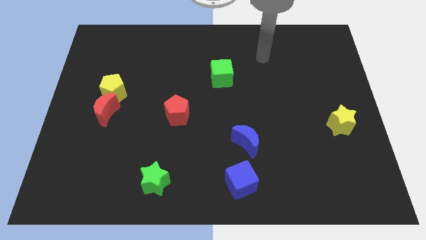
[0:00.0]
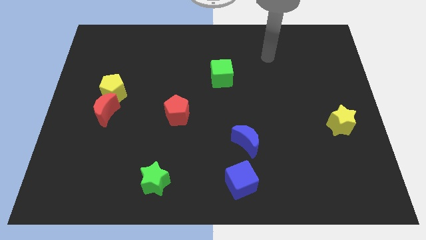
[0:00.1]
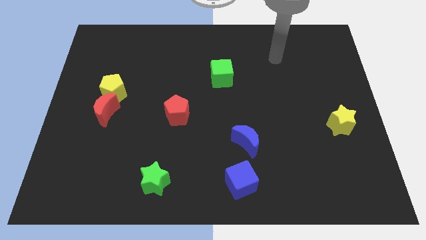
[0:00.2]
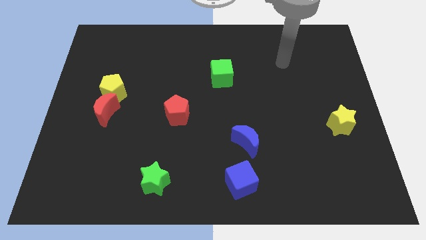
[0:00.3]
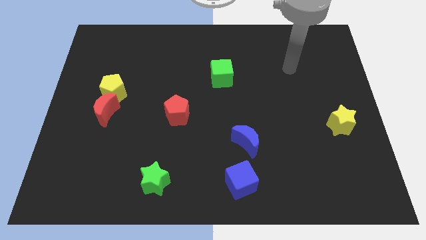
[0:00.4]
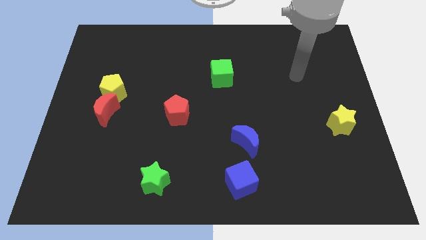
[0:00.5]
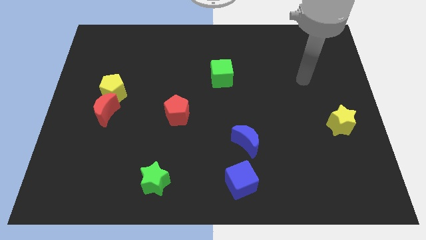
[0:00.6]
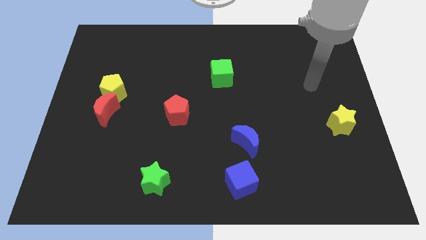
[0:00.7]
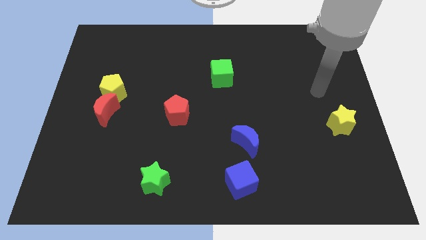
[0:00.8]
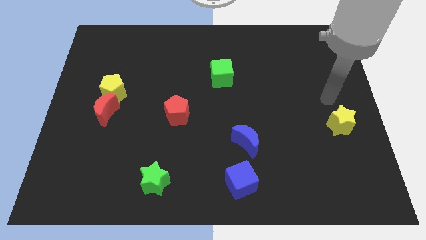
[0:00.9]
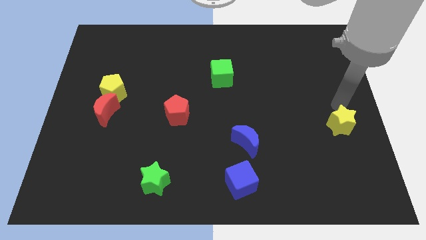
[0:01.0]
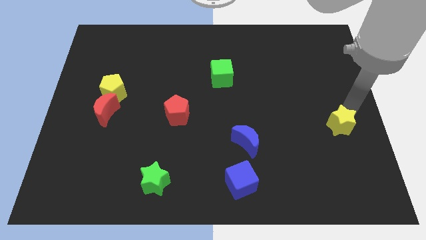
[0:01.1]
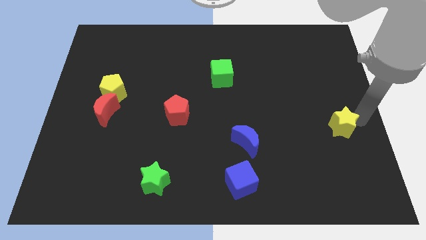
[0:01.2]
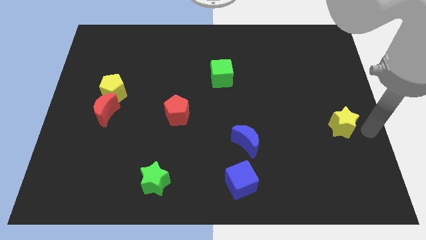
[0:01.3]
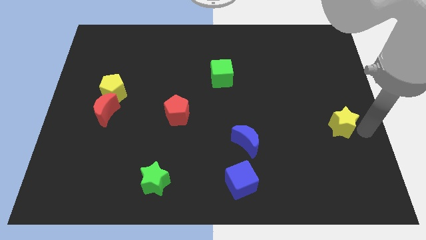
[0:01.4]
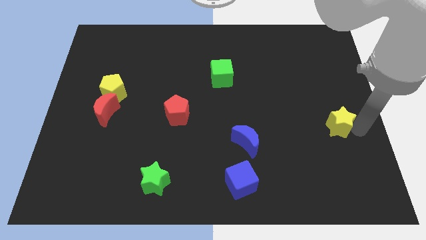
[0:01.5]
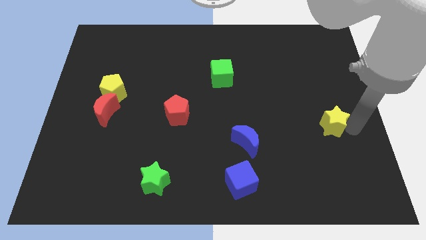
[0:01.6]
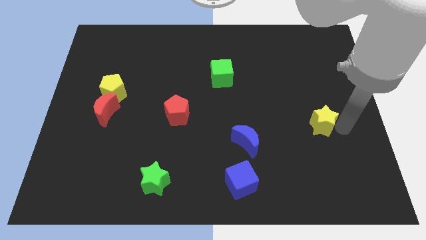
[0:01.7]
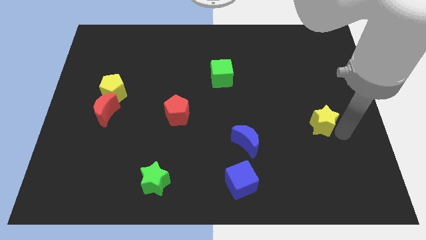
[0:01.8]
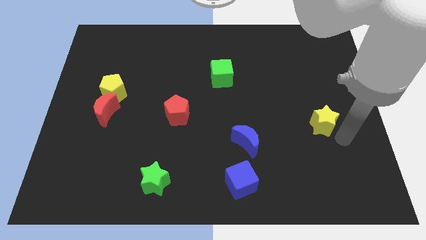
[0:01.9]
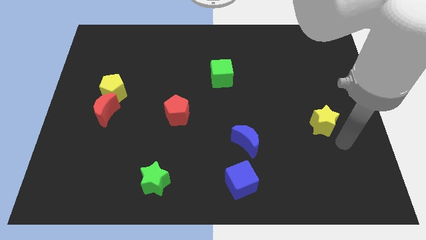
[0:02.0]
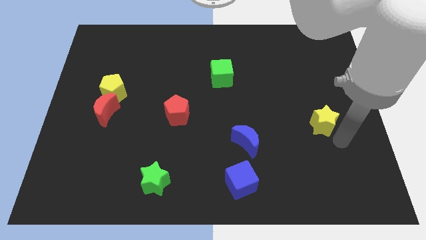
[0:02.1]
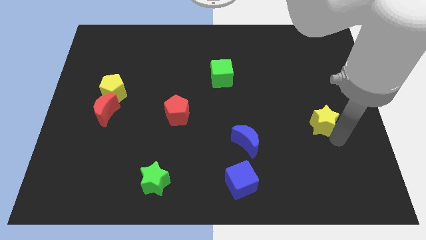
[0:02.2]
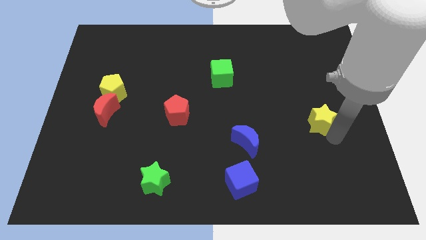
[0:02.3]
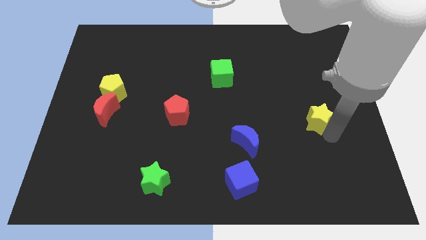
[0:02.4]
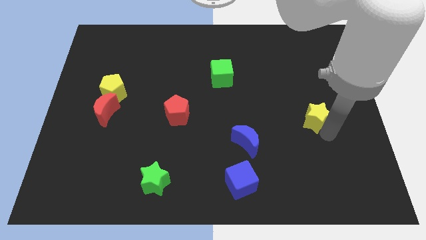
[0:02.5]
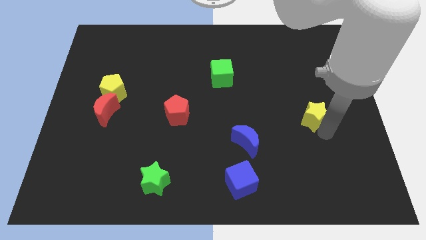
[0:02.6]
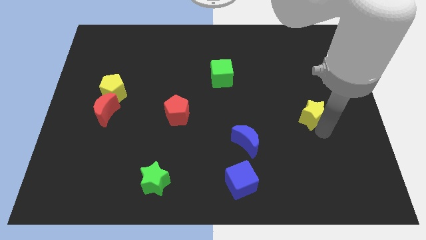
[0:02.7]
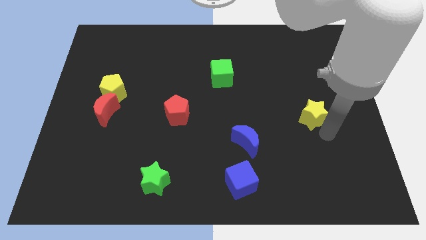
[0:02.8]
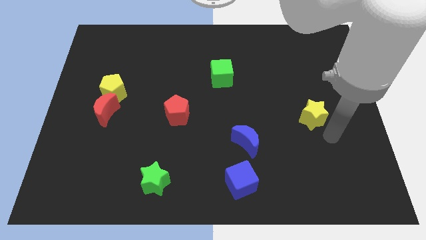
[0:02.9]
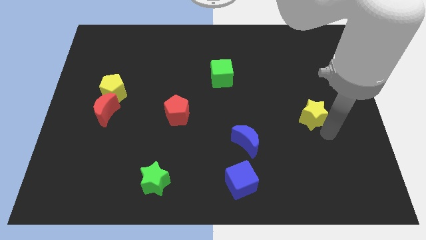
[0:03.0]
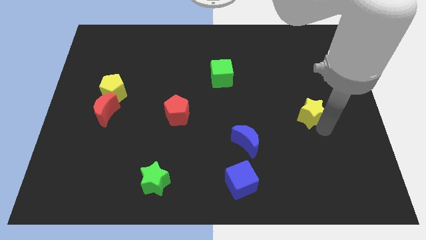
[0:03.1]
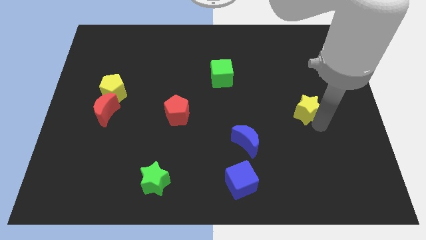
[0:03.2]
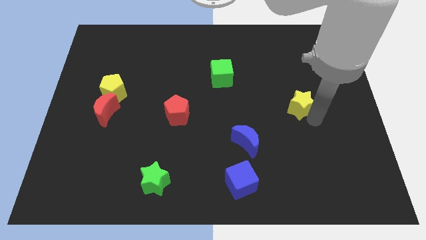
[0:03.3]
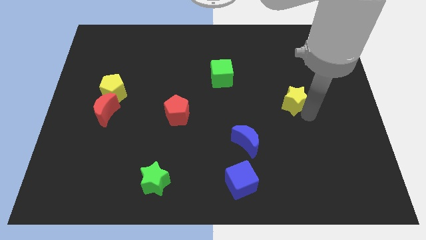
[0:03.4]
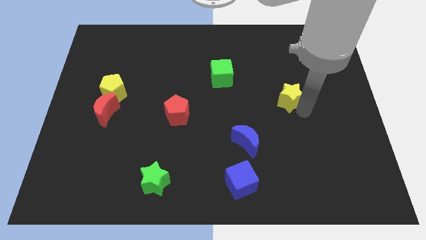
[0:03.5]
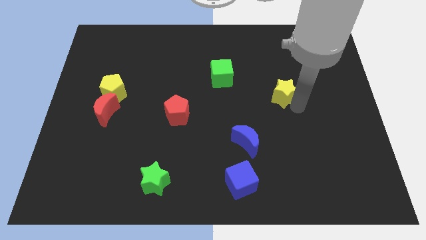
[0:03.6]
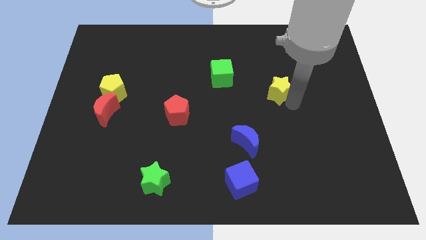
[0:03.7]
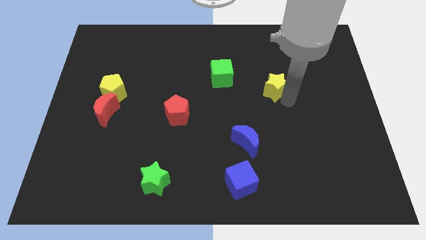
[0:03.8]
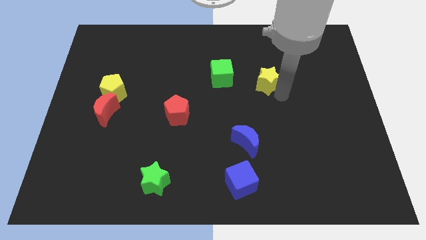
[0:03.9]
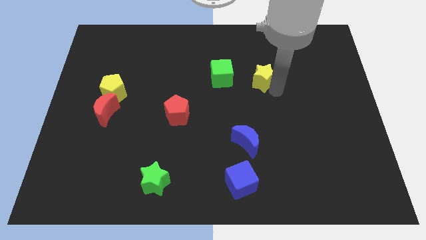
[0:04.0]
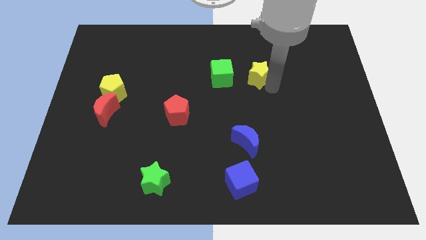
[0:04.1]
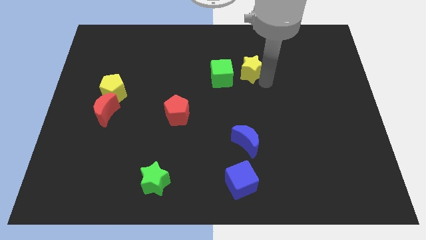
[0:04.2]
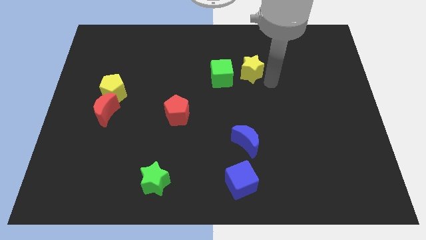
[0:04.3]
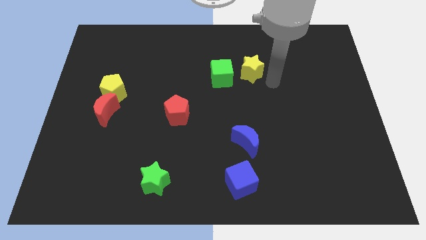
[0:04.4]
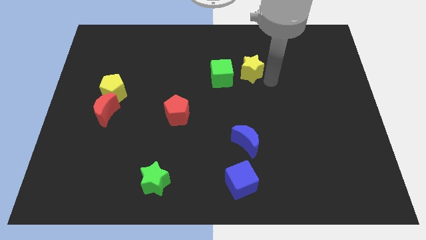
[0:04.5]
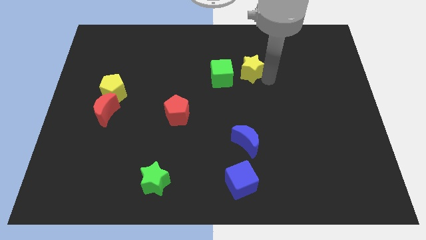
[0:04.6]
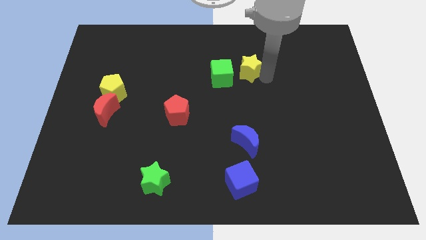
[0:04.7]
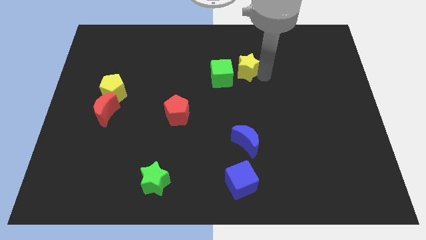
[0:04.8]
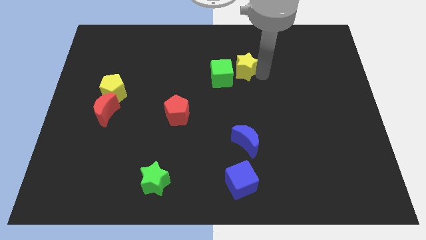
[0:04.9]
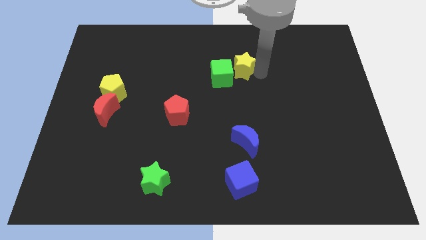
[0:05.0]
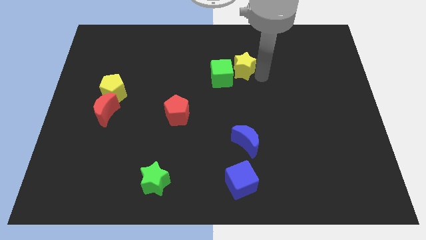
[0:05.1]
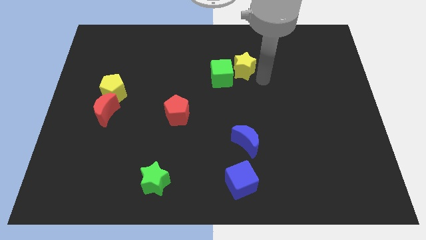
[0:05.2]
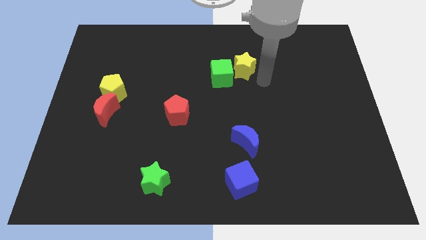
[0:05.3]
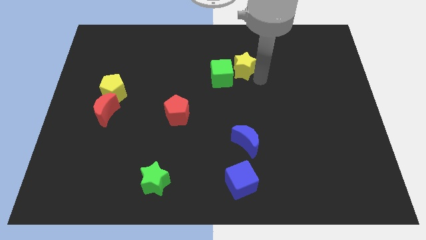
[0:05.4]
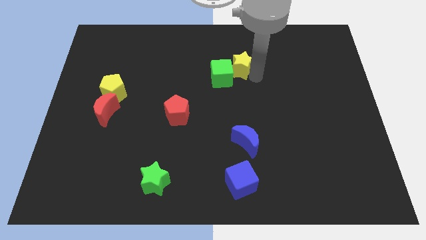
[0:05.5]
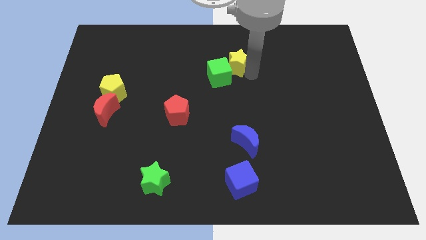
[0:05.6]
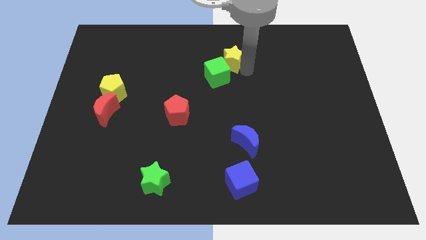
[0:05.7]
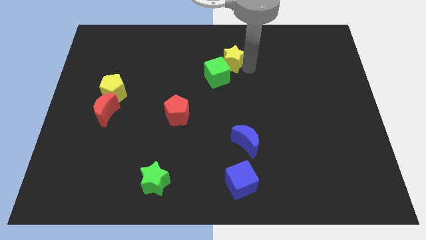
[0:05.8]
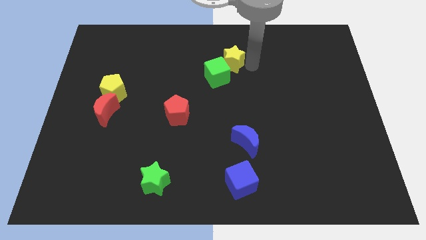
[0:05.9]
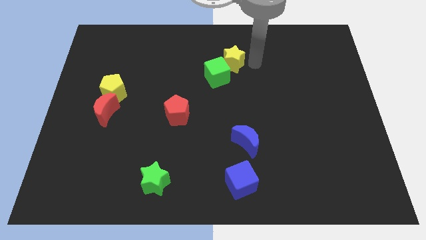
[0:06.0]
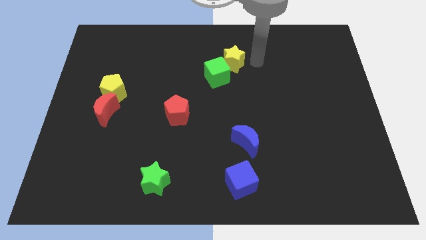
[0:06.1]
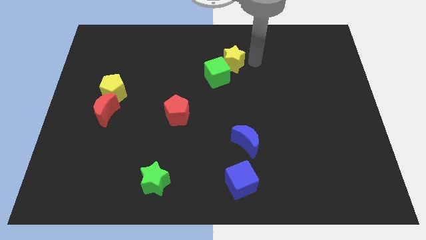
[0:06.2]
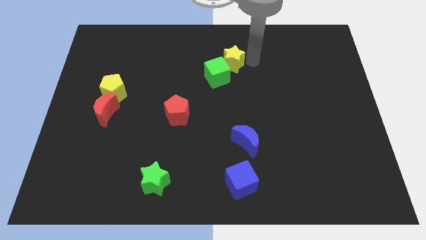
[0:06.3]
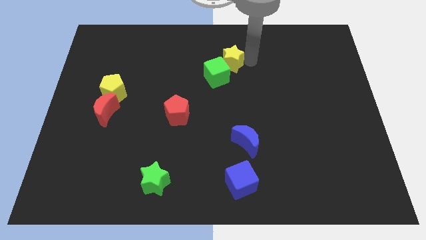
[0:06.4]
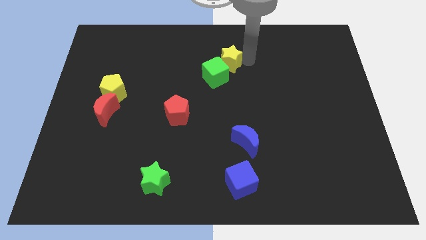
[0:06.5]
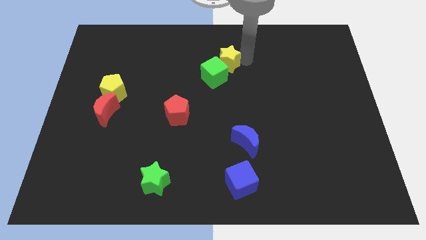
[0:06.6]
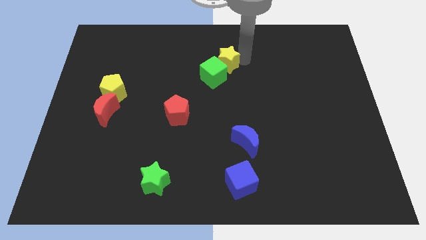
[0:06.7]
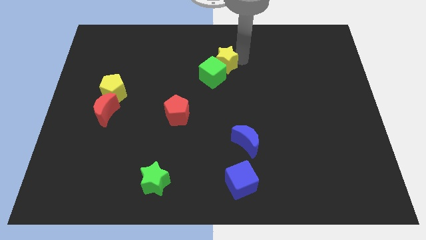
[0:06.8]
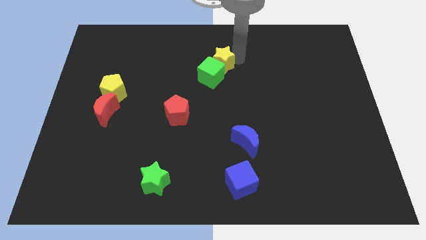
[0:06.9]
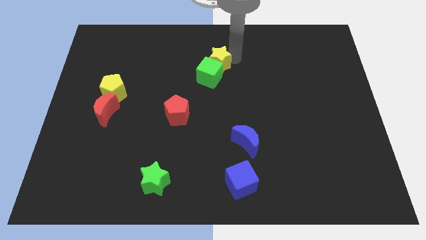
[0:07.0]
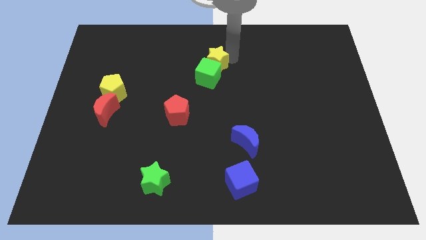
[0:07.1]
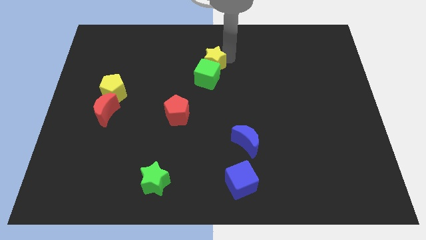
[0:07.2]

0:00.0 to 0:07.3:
put the yellow star to the top left side of the green cube
